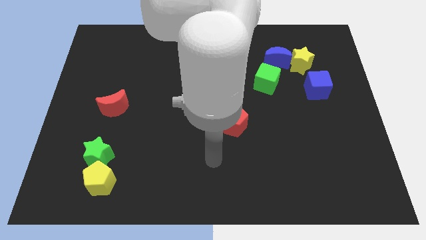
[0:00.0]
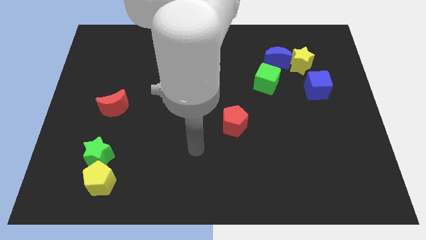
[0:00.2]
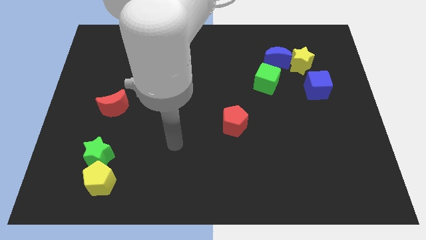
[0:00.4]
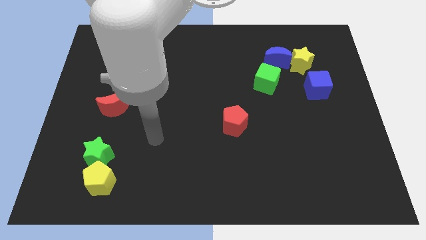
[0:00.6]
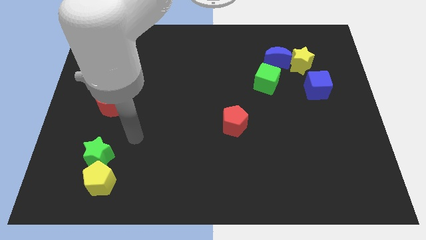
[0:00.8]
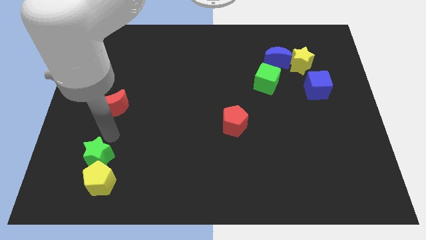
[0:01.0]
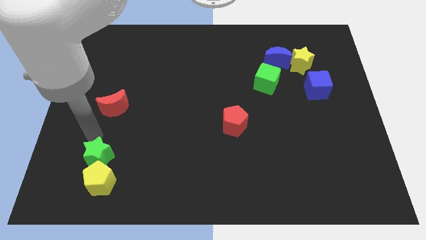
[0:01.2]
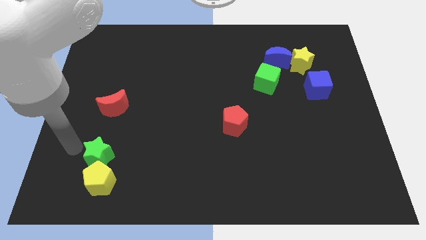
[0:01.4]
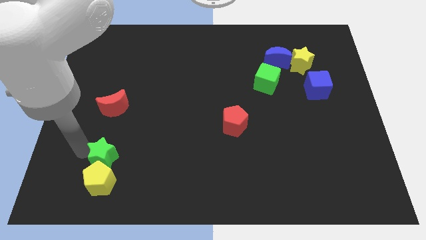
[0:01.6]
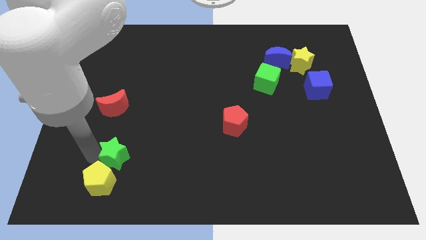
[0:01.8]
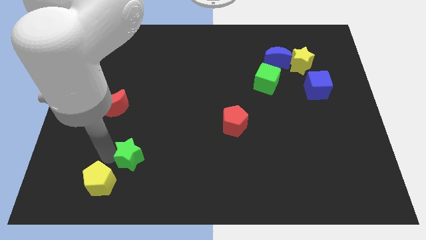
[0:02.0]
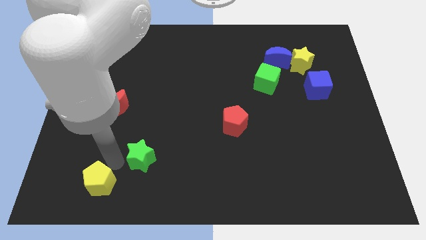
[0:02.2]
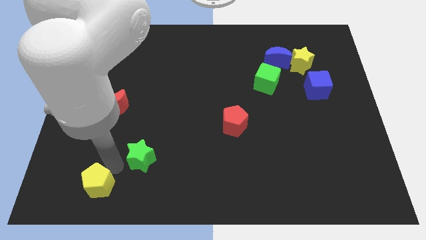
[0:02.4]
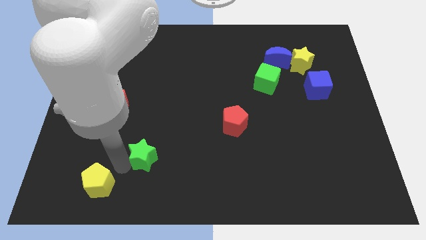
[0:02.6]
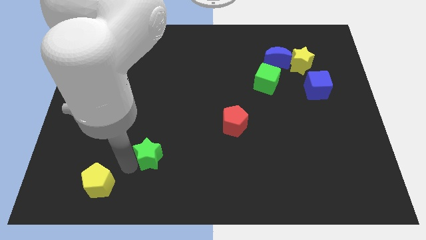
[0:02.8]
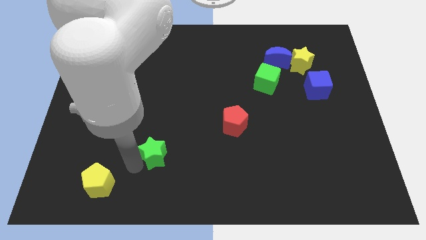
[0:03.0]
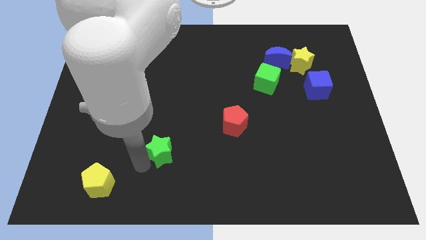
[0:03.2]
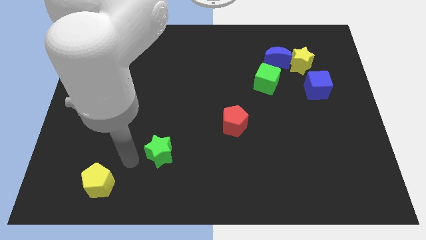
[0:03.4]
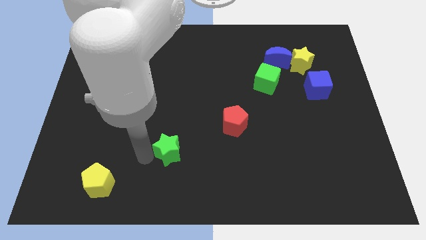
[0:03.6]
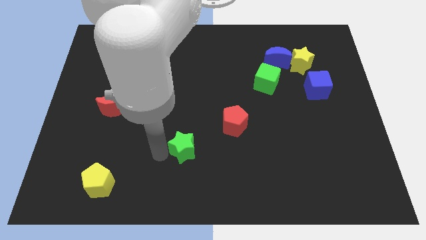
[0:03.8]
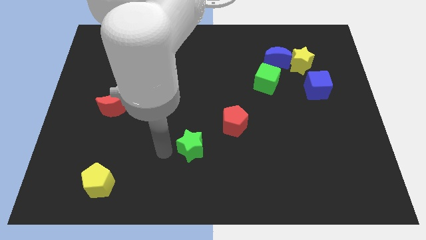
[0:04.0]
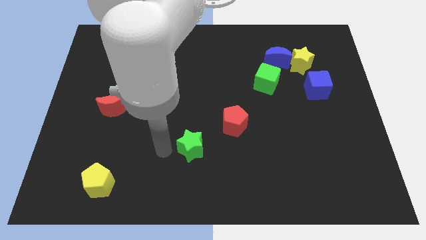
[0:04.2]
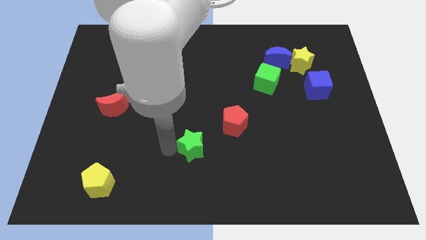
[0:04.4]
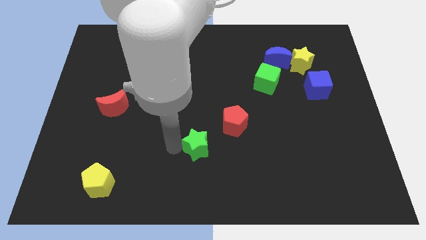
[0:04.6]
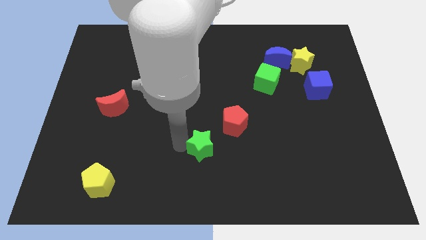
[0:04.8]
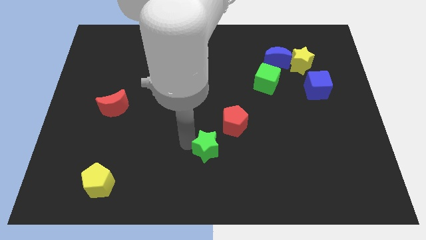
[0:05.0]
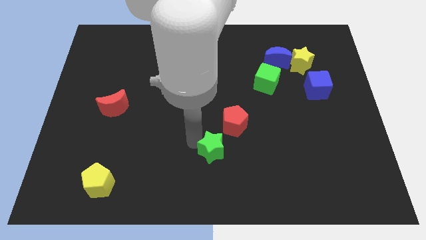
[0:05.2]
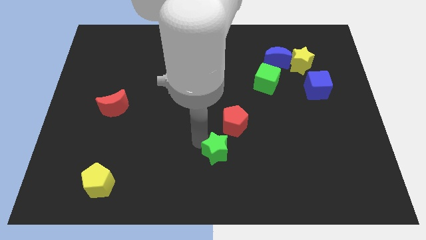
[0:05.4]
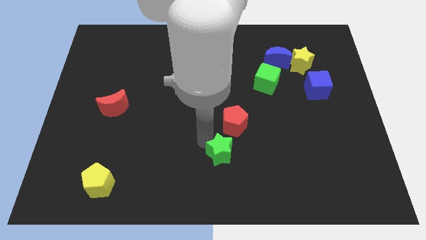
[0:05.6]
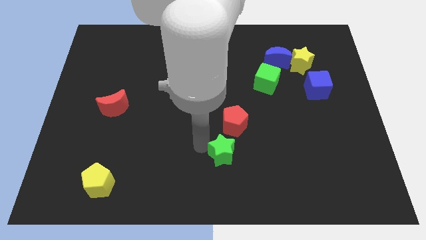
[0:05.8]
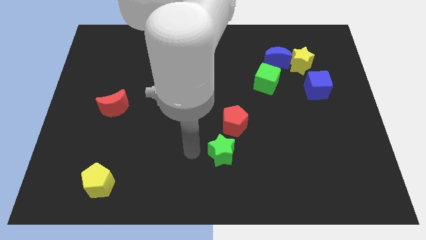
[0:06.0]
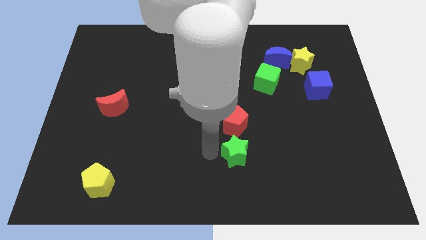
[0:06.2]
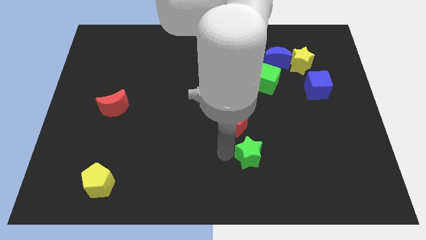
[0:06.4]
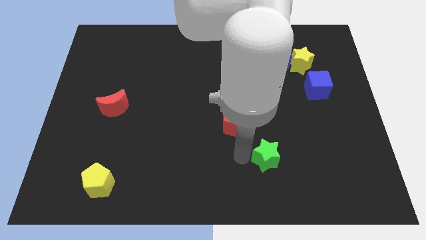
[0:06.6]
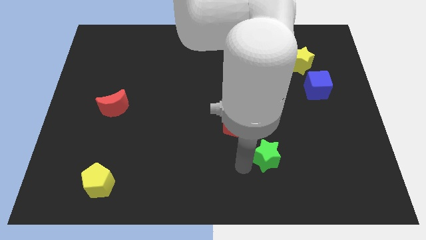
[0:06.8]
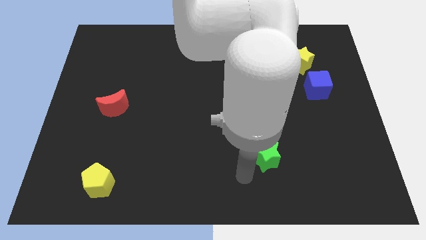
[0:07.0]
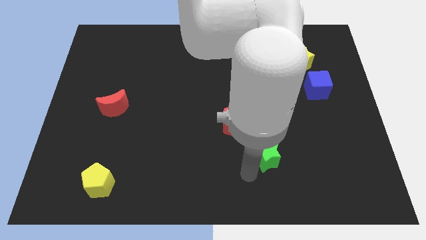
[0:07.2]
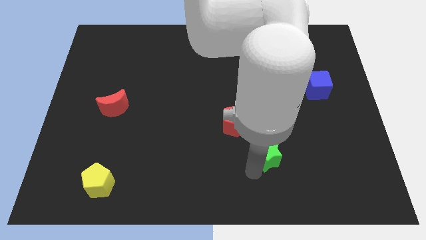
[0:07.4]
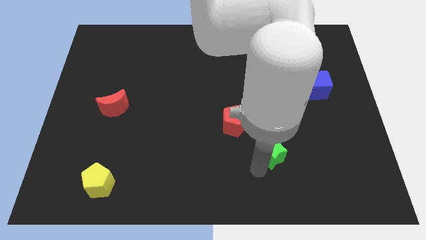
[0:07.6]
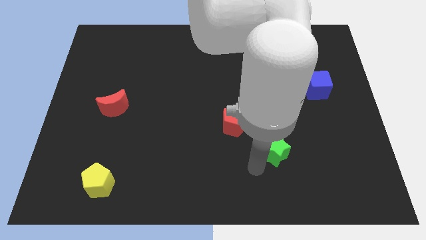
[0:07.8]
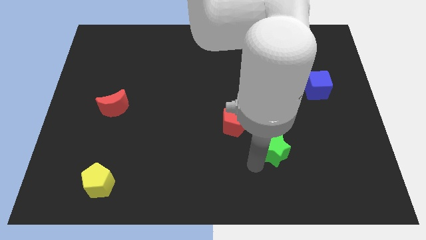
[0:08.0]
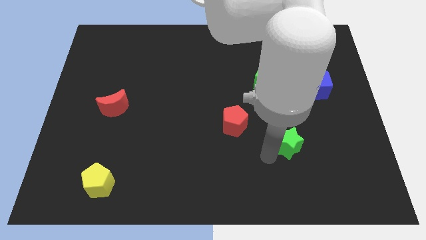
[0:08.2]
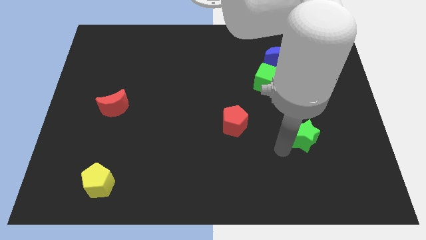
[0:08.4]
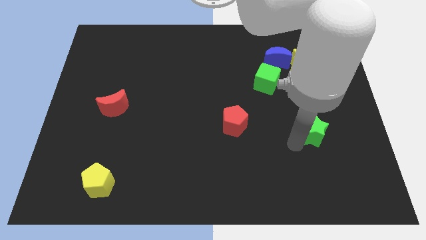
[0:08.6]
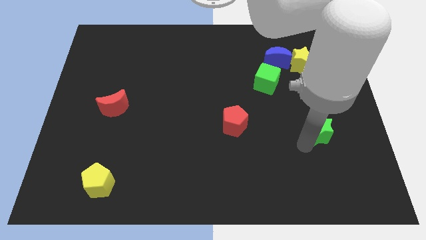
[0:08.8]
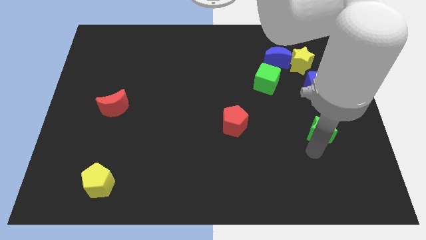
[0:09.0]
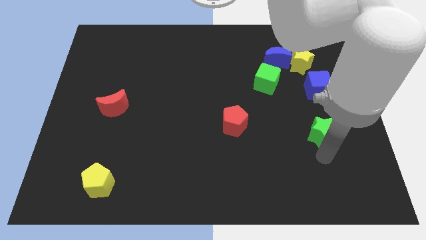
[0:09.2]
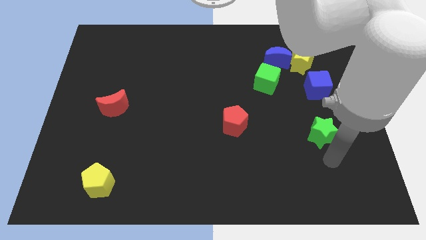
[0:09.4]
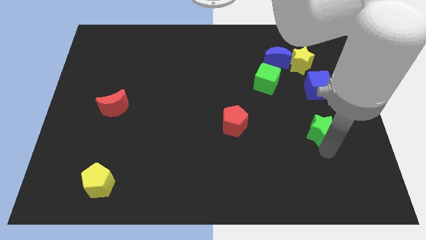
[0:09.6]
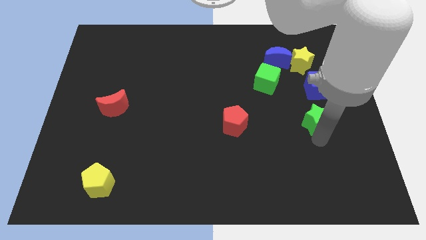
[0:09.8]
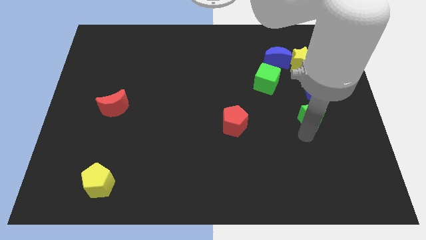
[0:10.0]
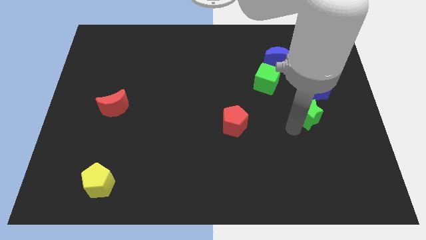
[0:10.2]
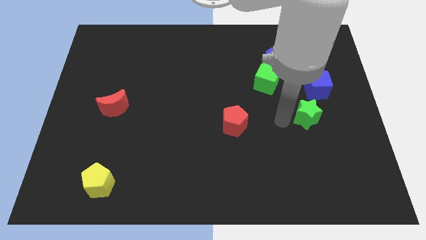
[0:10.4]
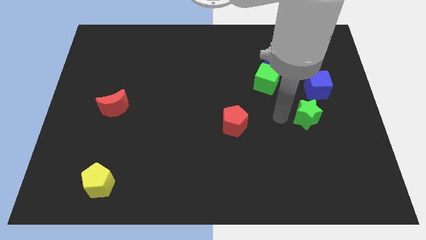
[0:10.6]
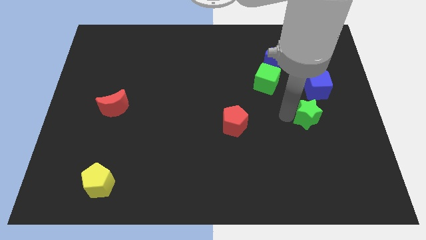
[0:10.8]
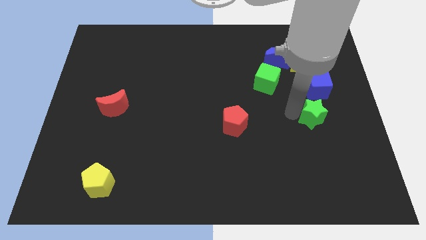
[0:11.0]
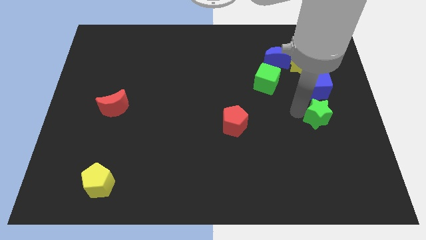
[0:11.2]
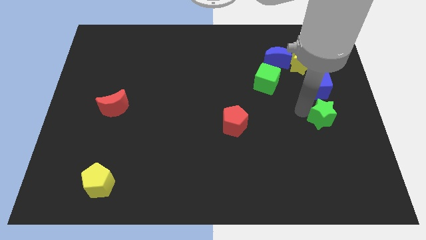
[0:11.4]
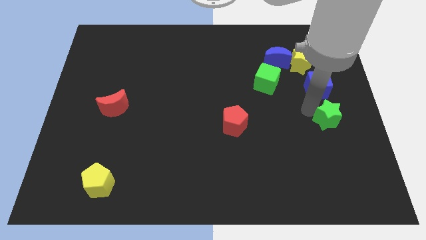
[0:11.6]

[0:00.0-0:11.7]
put the green star to the right side

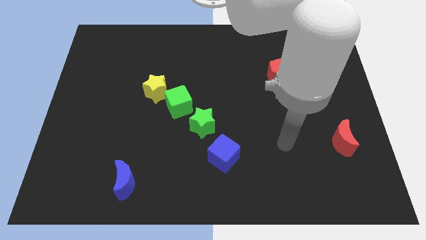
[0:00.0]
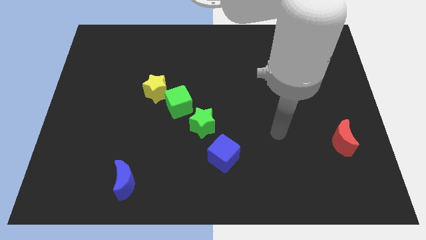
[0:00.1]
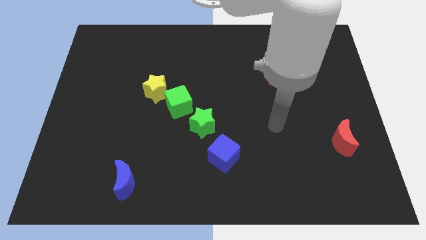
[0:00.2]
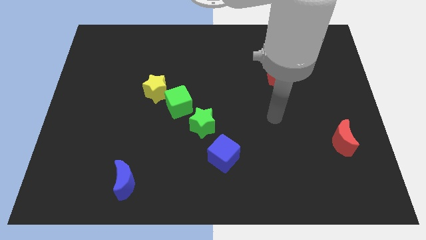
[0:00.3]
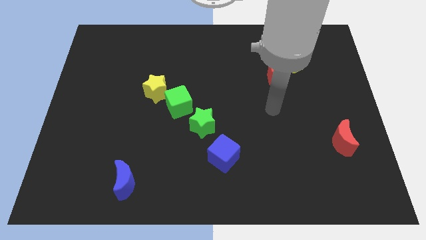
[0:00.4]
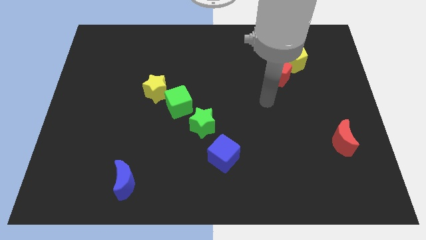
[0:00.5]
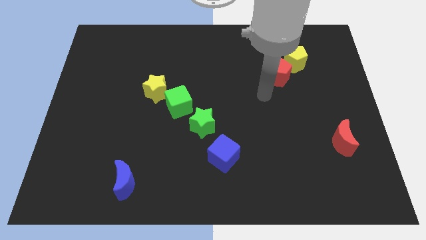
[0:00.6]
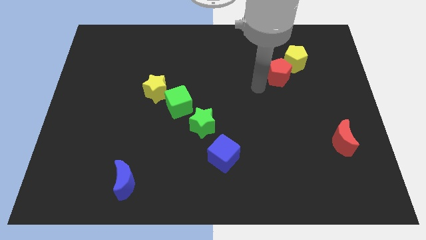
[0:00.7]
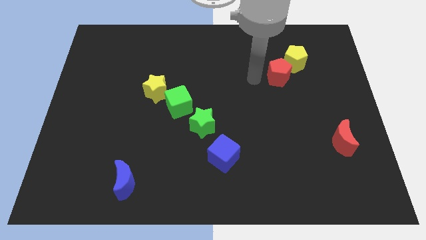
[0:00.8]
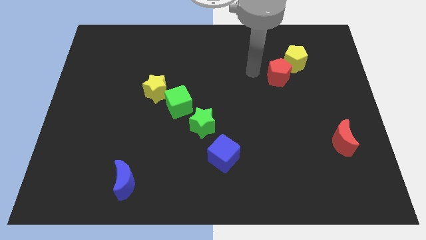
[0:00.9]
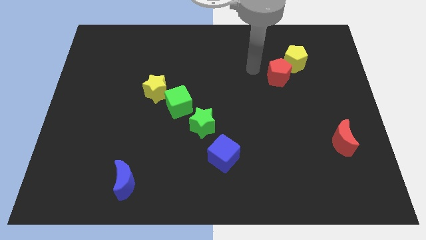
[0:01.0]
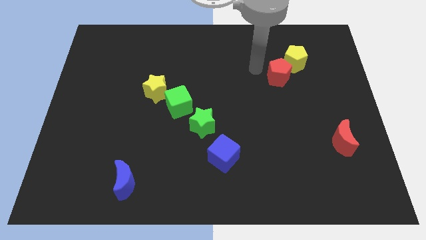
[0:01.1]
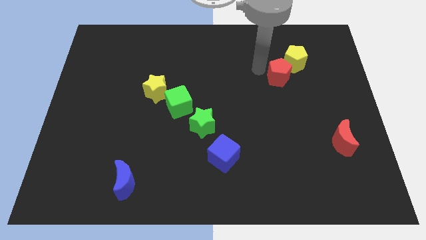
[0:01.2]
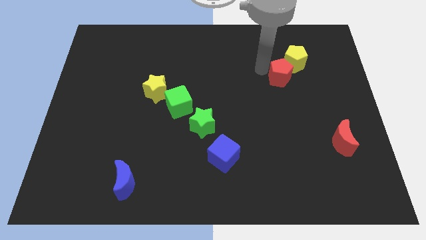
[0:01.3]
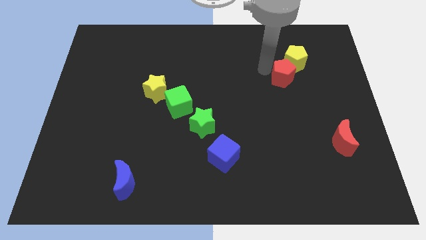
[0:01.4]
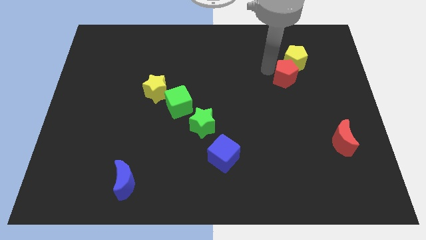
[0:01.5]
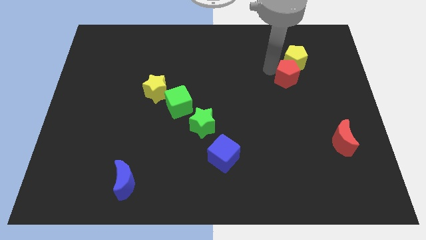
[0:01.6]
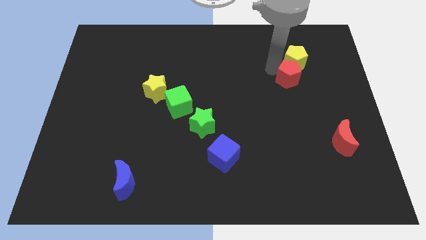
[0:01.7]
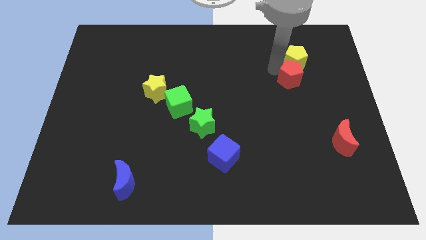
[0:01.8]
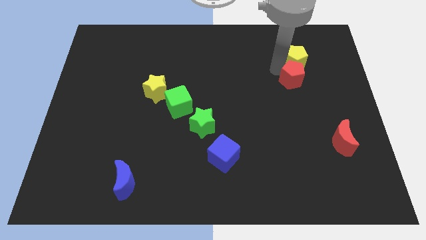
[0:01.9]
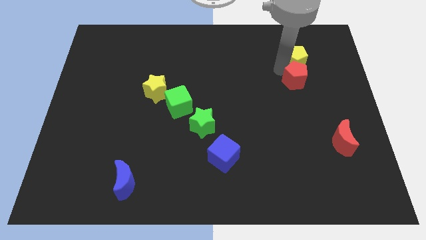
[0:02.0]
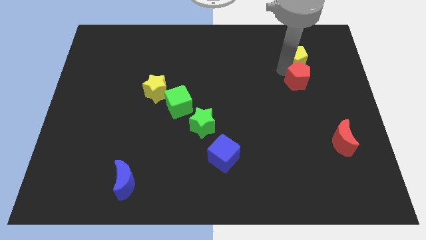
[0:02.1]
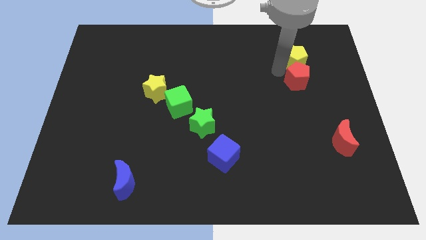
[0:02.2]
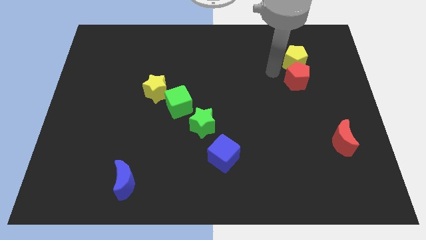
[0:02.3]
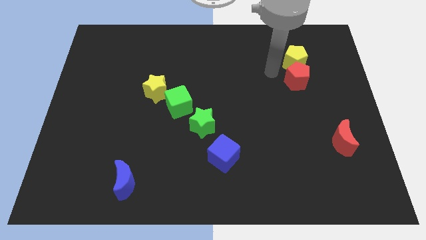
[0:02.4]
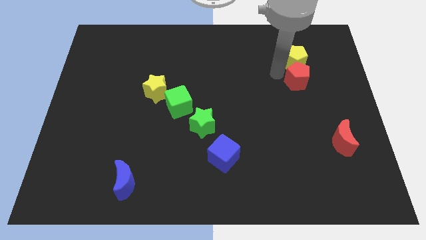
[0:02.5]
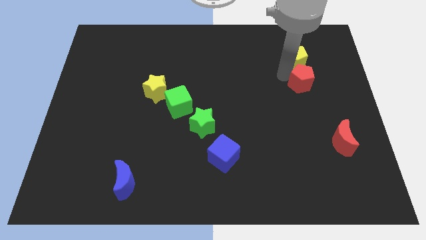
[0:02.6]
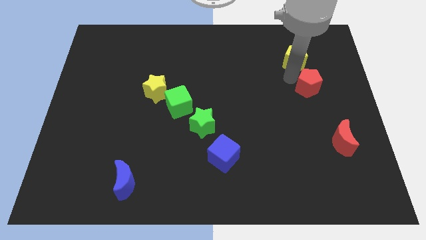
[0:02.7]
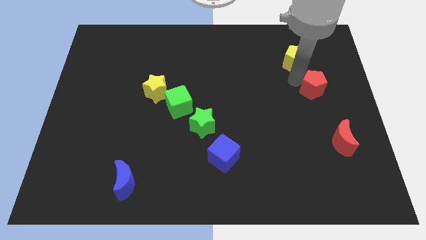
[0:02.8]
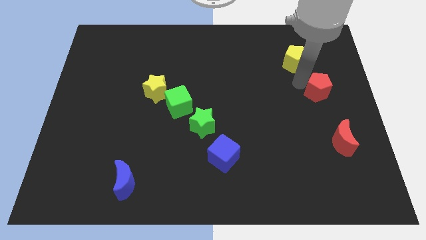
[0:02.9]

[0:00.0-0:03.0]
put the red pentagon to the right side
